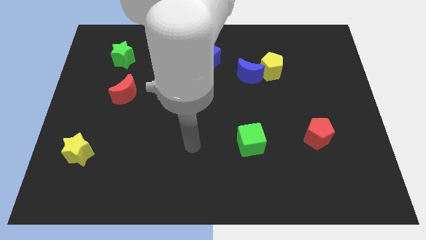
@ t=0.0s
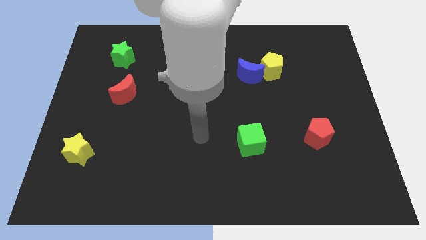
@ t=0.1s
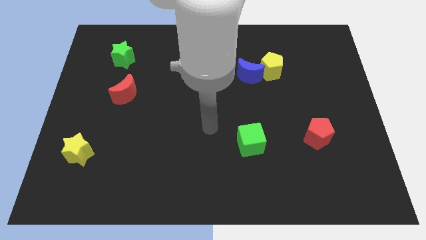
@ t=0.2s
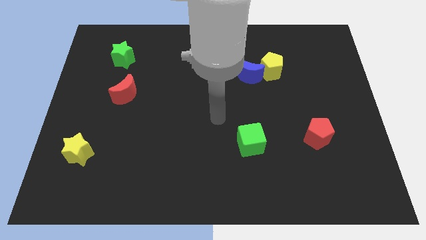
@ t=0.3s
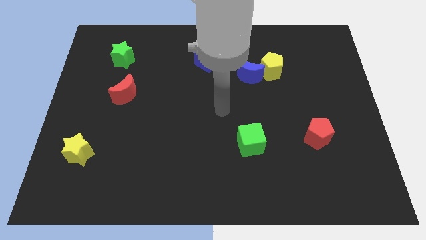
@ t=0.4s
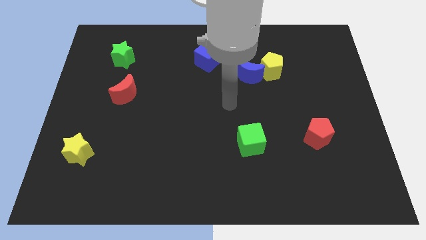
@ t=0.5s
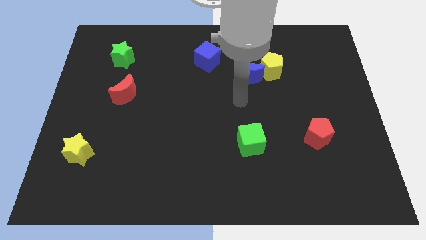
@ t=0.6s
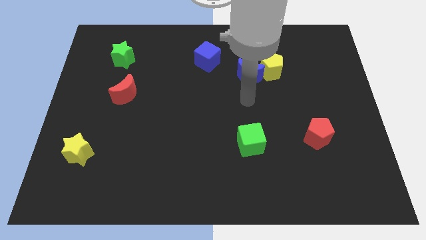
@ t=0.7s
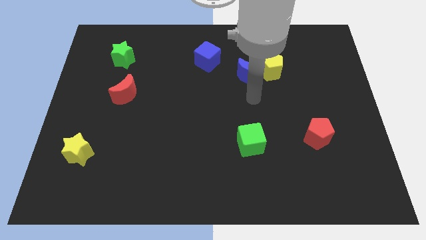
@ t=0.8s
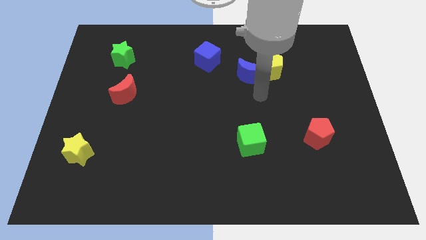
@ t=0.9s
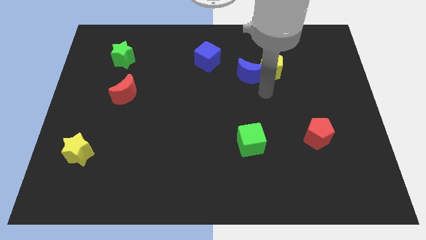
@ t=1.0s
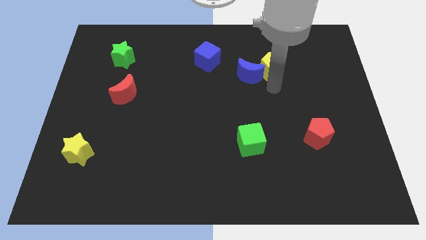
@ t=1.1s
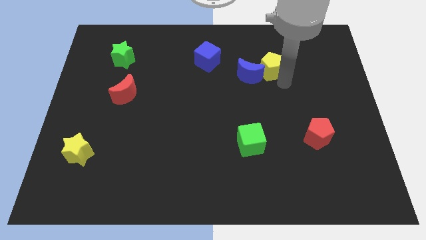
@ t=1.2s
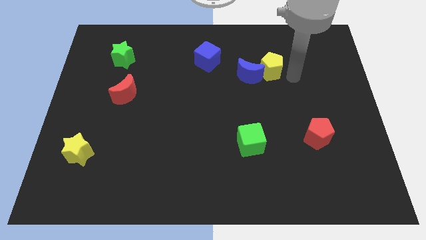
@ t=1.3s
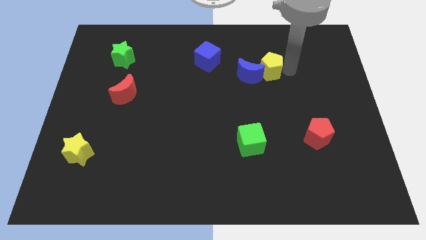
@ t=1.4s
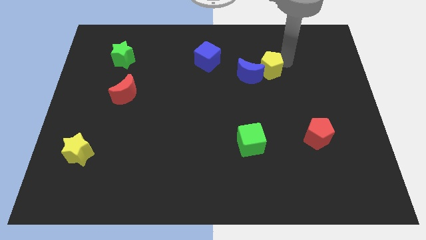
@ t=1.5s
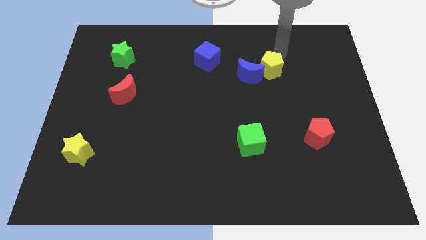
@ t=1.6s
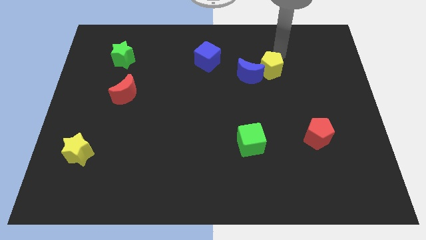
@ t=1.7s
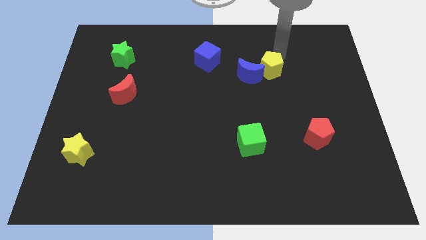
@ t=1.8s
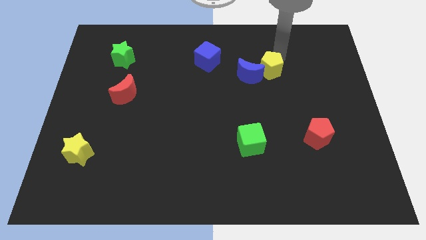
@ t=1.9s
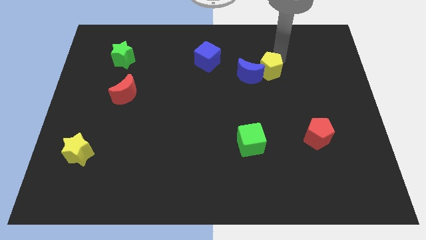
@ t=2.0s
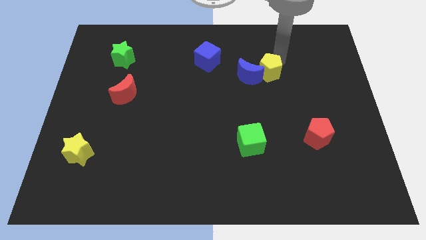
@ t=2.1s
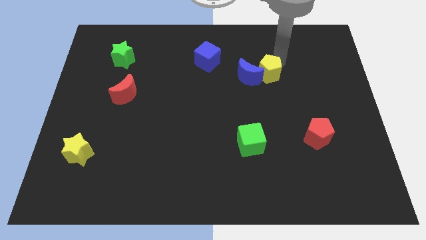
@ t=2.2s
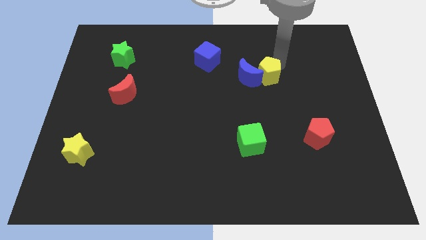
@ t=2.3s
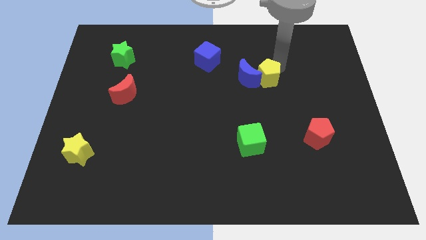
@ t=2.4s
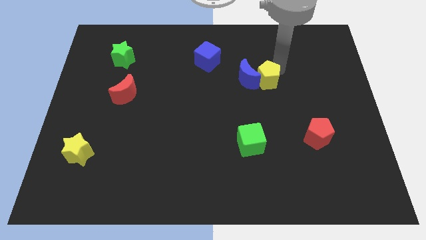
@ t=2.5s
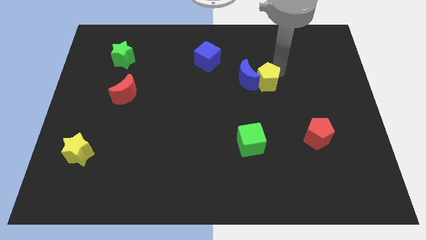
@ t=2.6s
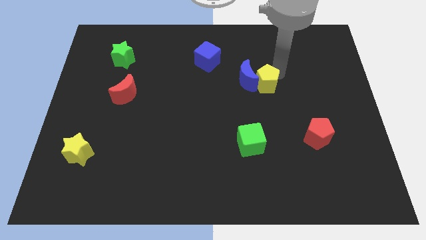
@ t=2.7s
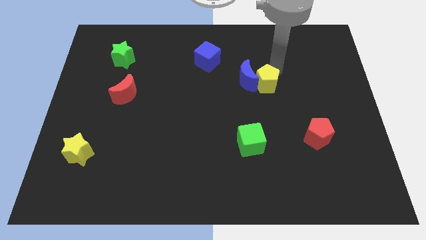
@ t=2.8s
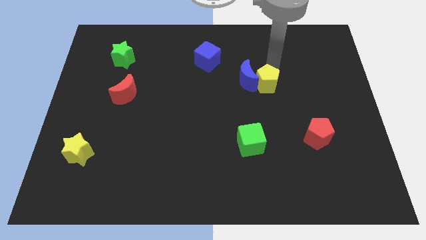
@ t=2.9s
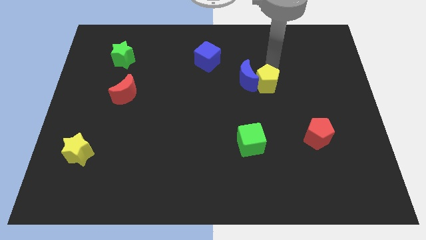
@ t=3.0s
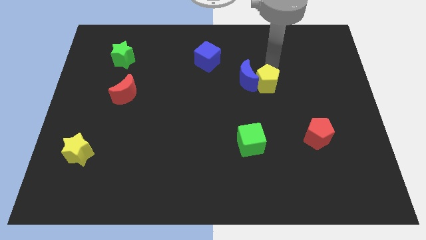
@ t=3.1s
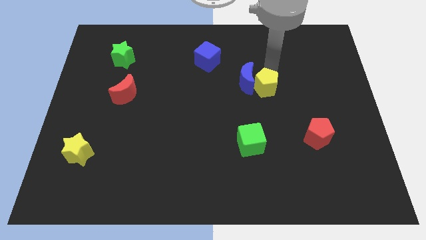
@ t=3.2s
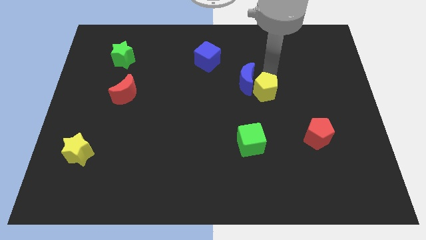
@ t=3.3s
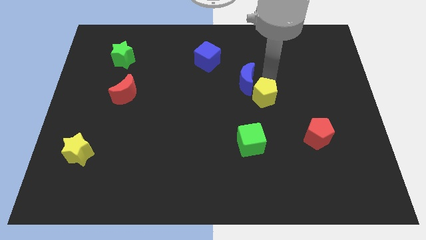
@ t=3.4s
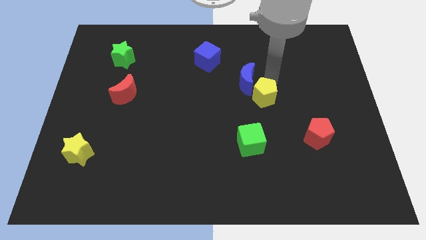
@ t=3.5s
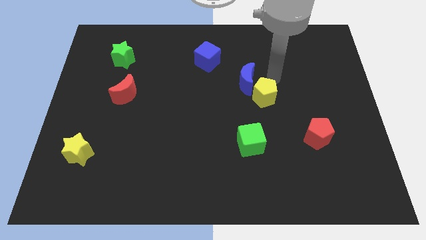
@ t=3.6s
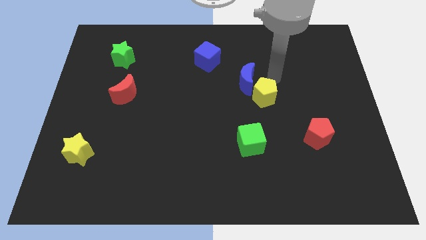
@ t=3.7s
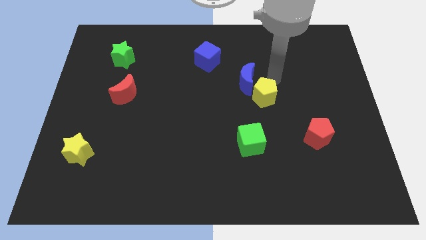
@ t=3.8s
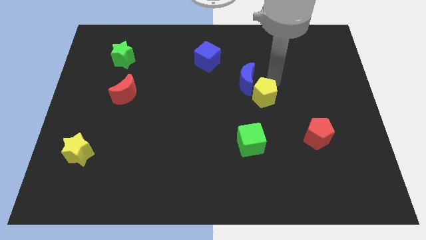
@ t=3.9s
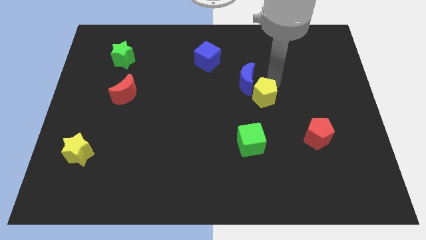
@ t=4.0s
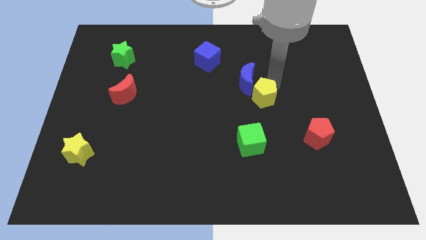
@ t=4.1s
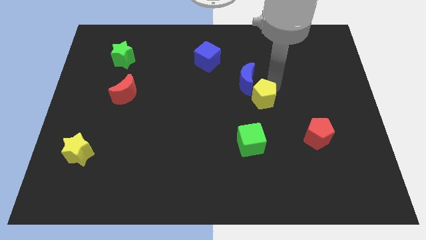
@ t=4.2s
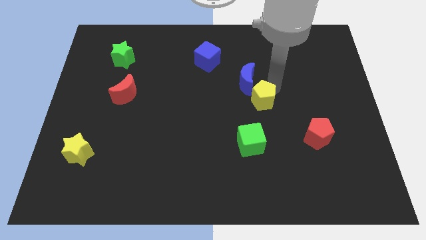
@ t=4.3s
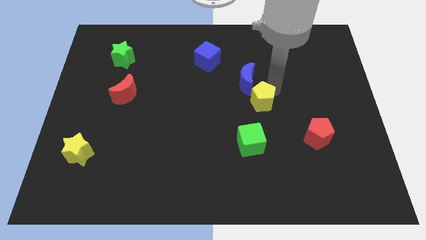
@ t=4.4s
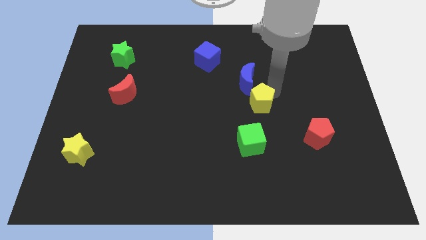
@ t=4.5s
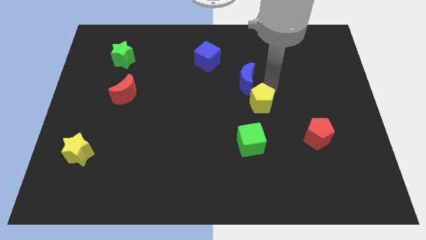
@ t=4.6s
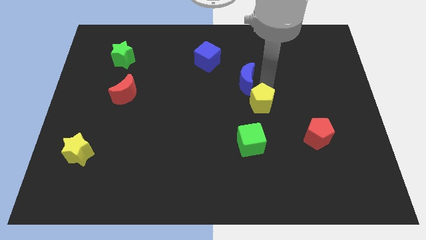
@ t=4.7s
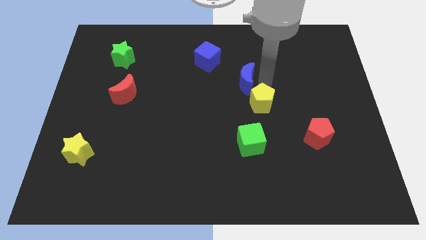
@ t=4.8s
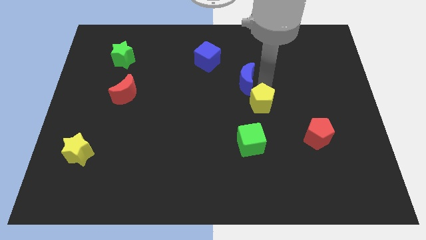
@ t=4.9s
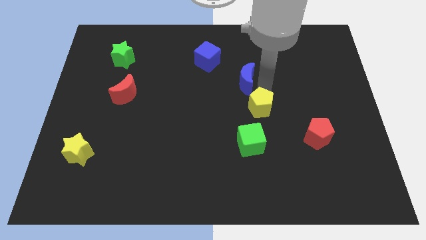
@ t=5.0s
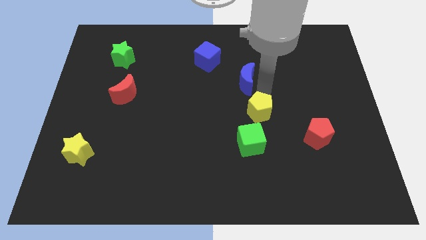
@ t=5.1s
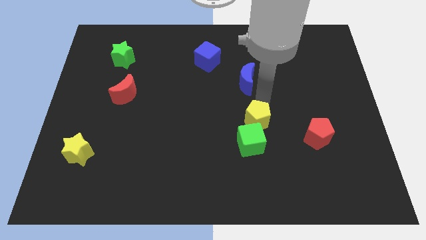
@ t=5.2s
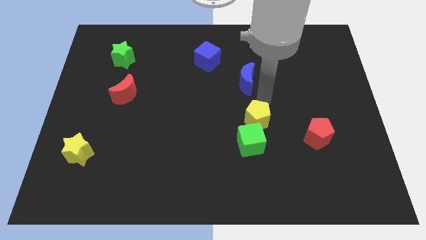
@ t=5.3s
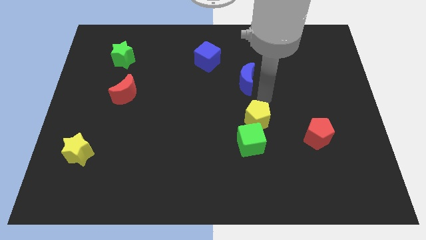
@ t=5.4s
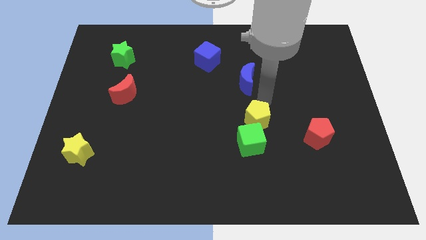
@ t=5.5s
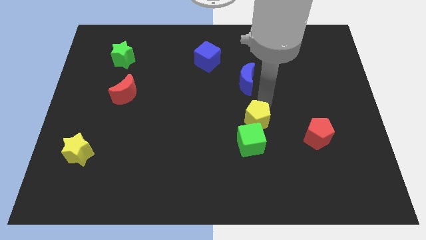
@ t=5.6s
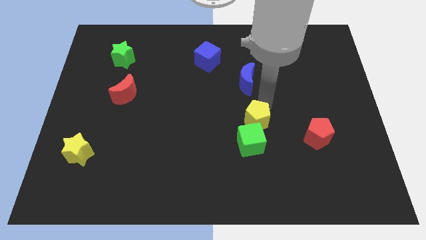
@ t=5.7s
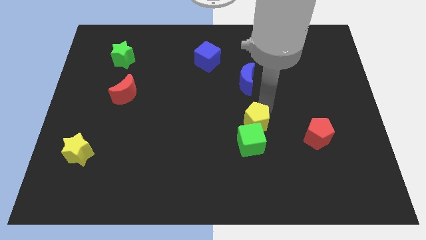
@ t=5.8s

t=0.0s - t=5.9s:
push the yellow pentagon towards the green cube

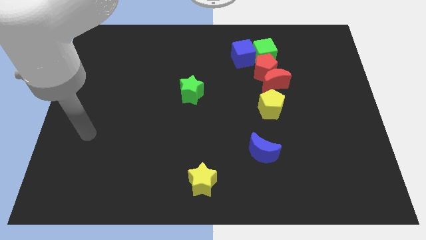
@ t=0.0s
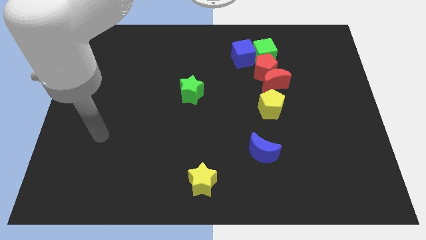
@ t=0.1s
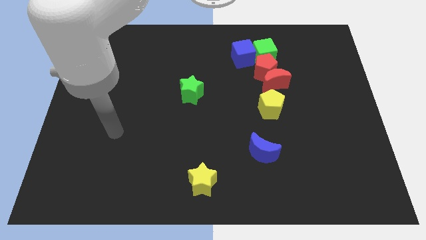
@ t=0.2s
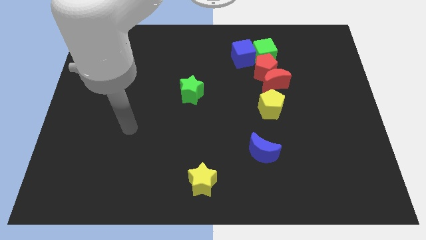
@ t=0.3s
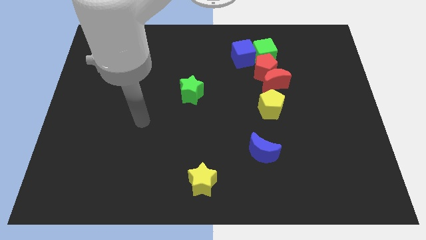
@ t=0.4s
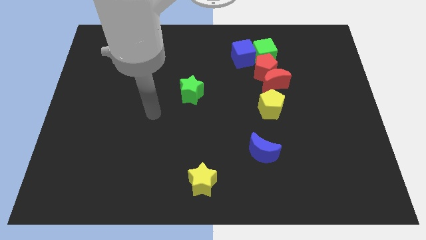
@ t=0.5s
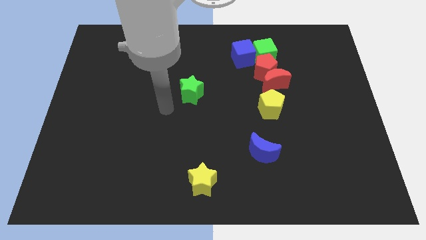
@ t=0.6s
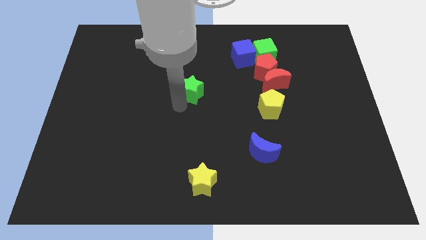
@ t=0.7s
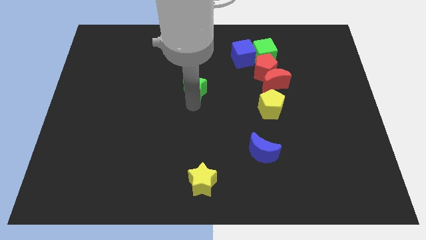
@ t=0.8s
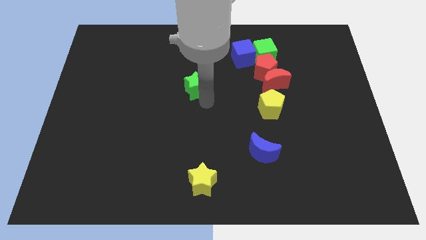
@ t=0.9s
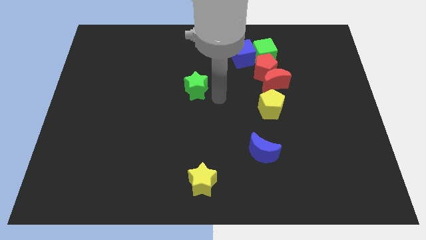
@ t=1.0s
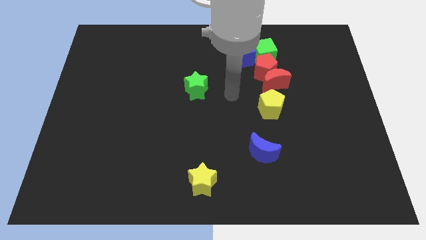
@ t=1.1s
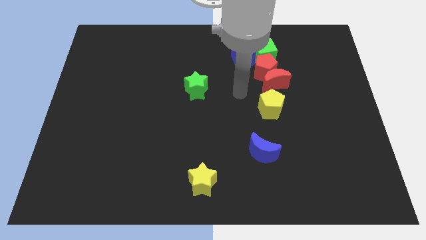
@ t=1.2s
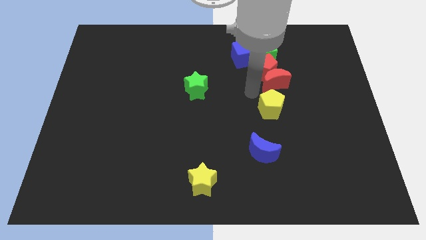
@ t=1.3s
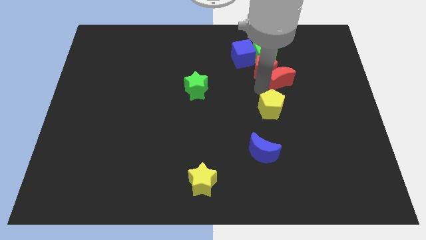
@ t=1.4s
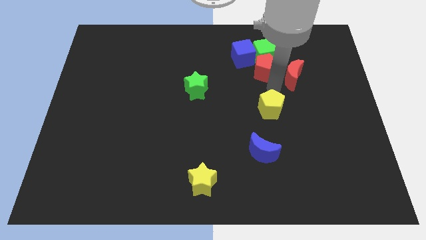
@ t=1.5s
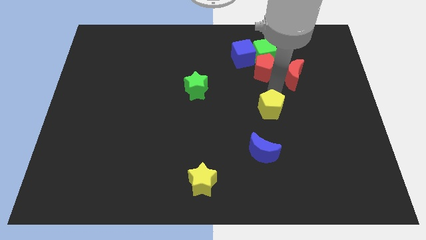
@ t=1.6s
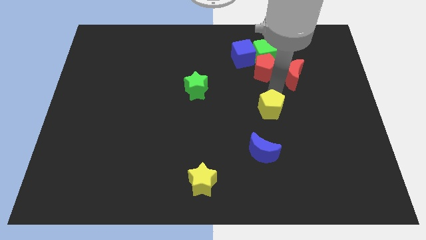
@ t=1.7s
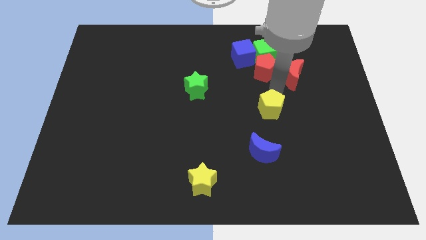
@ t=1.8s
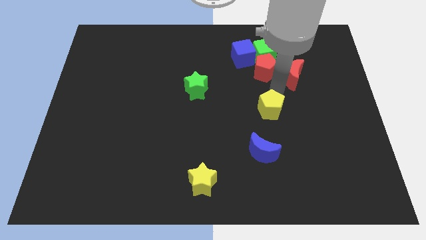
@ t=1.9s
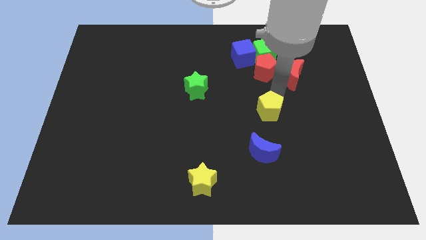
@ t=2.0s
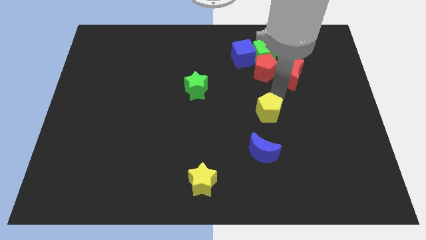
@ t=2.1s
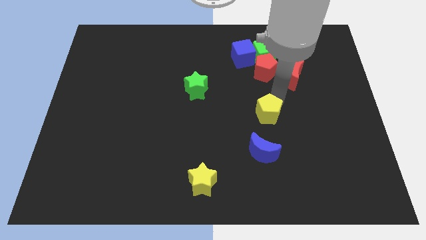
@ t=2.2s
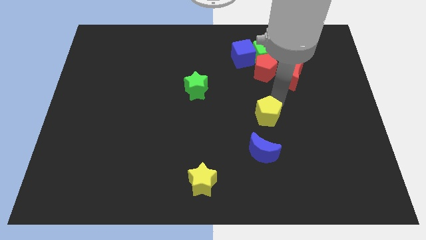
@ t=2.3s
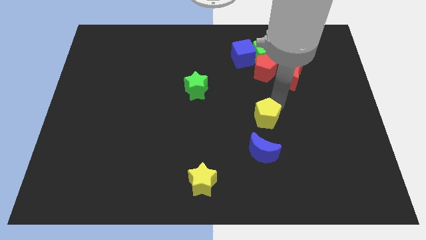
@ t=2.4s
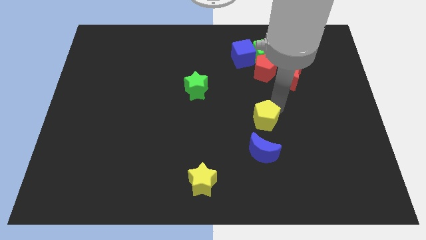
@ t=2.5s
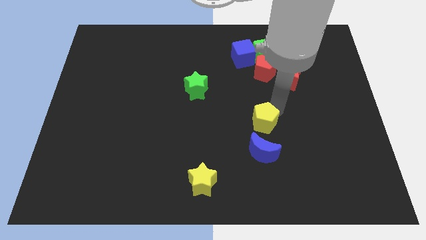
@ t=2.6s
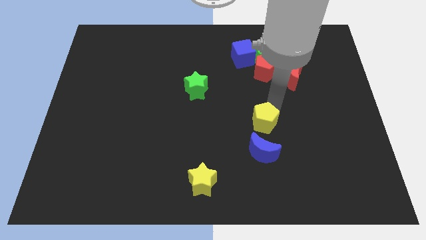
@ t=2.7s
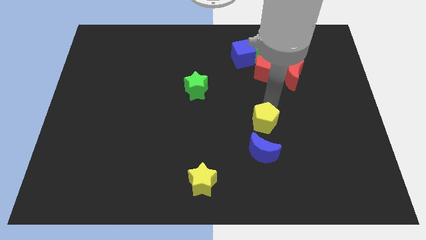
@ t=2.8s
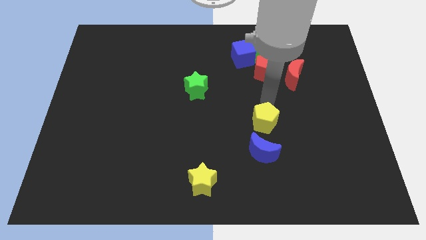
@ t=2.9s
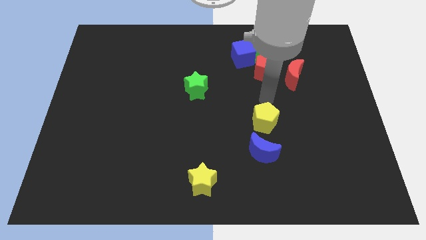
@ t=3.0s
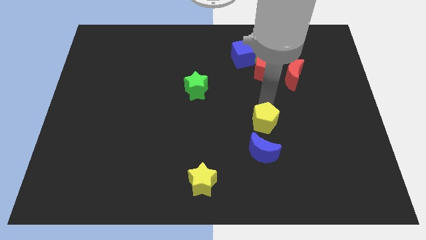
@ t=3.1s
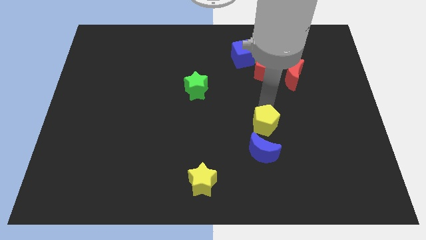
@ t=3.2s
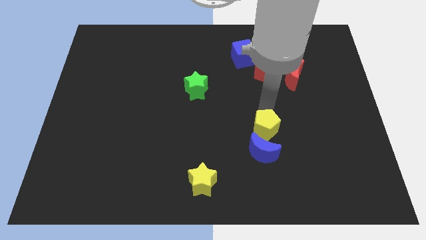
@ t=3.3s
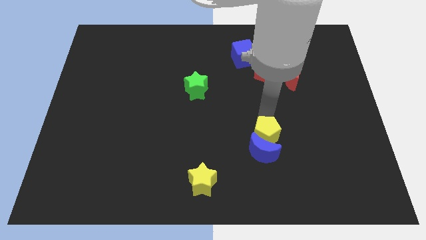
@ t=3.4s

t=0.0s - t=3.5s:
slide the yellow pentagon to the blue moon
